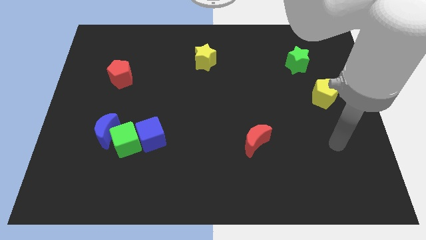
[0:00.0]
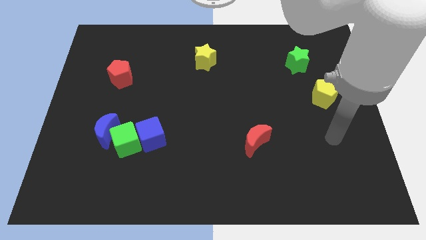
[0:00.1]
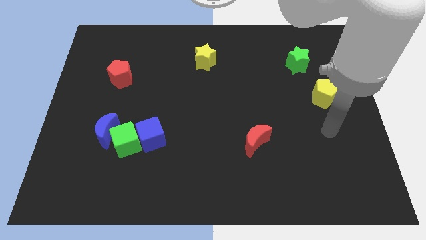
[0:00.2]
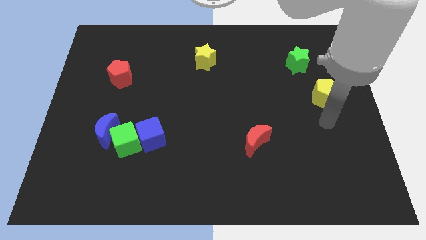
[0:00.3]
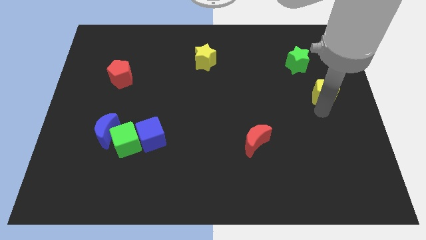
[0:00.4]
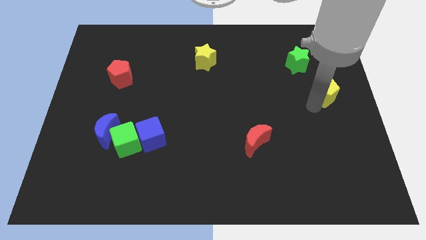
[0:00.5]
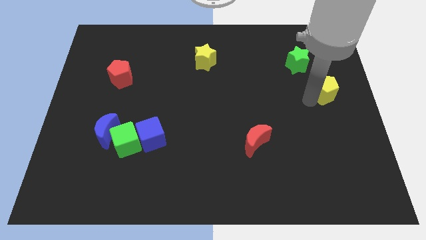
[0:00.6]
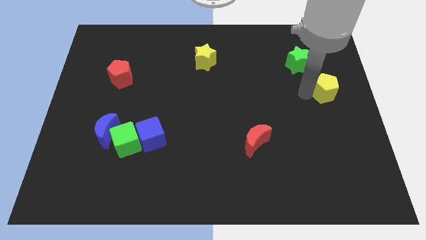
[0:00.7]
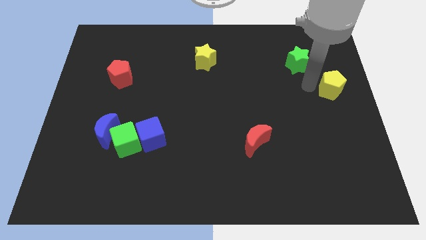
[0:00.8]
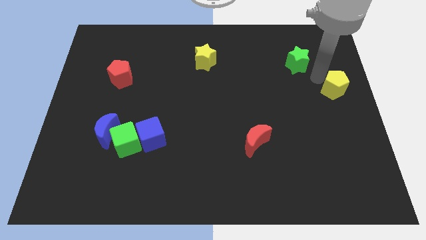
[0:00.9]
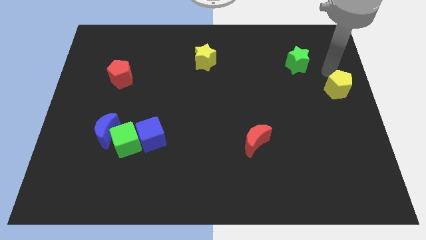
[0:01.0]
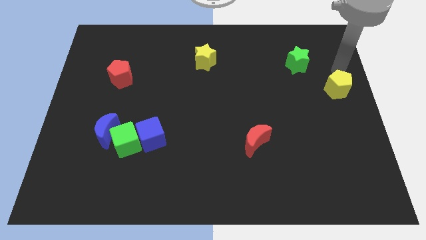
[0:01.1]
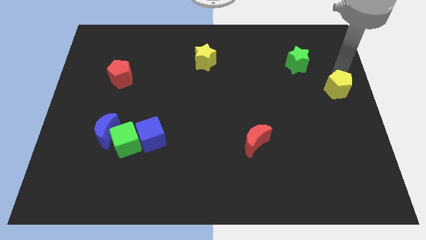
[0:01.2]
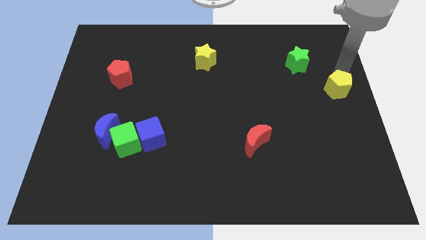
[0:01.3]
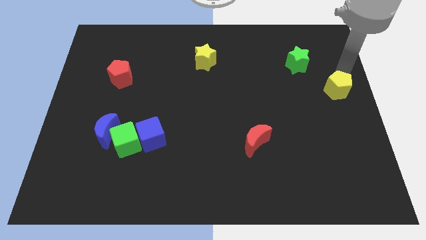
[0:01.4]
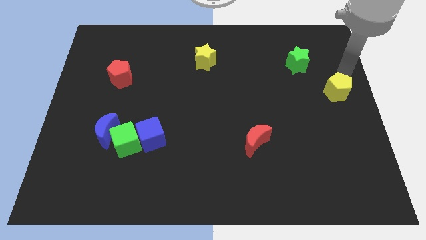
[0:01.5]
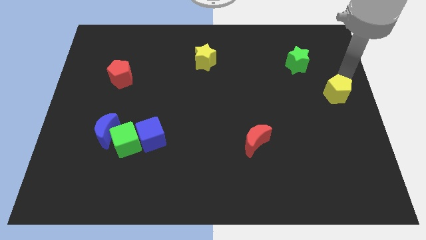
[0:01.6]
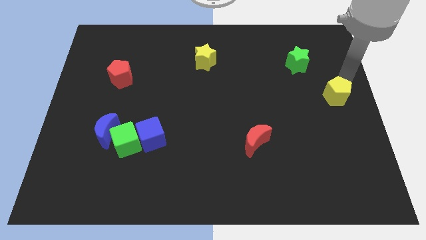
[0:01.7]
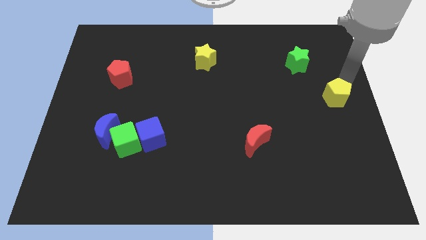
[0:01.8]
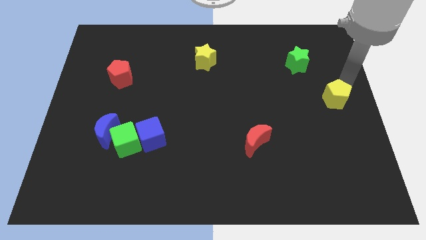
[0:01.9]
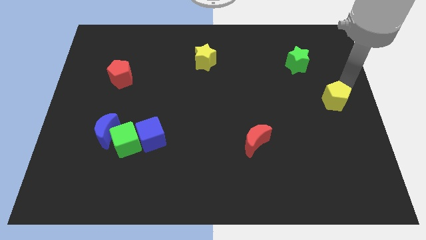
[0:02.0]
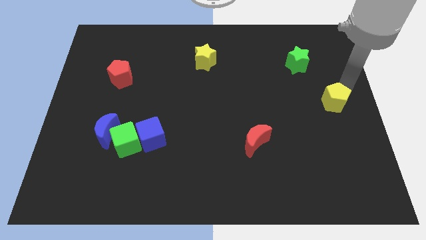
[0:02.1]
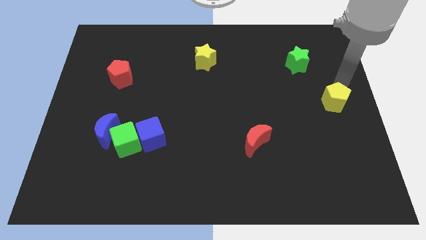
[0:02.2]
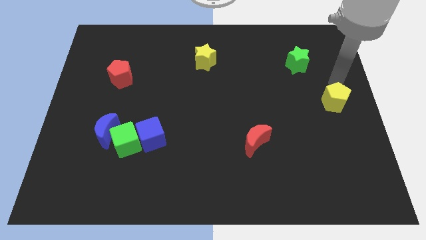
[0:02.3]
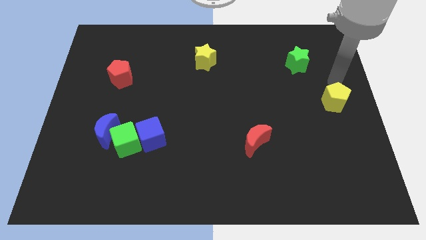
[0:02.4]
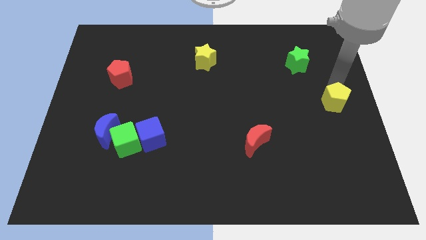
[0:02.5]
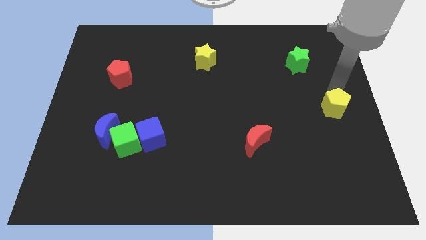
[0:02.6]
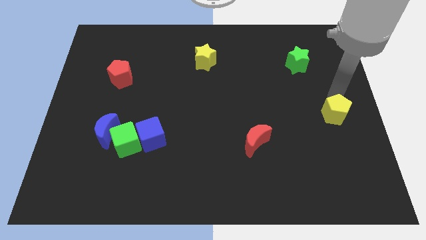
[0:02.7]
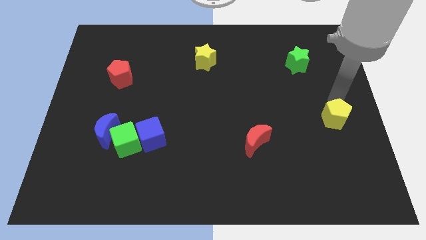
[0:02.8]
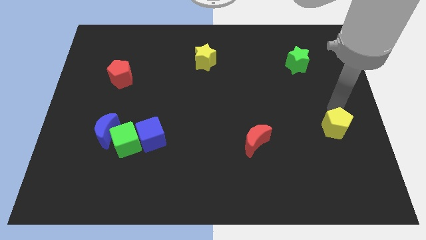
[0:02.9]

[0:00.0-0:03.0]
push the yellow pentagon a bit downwards

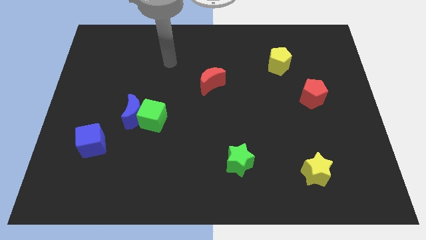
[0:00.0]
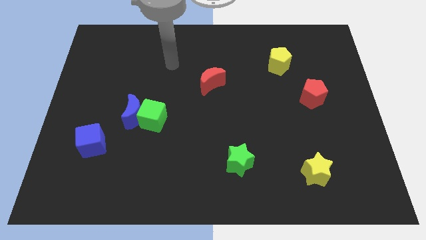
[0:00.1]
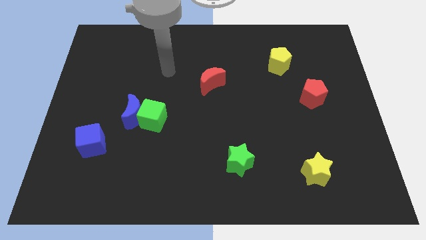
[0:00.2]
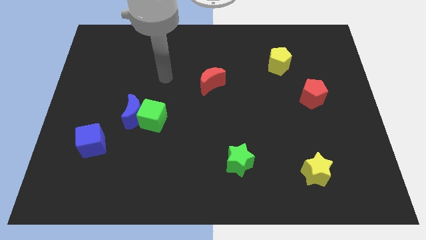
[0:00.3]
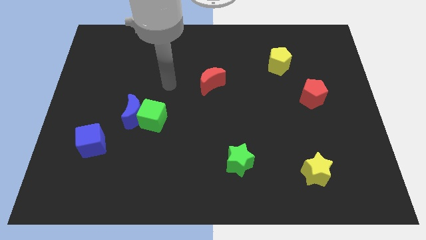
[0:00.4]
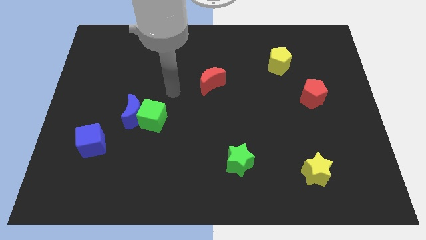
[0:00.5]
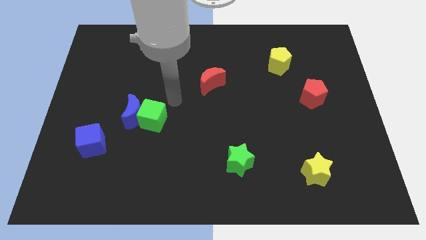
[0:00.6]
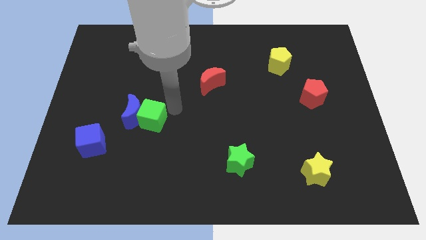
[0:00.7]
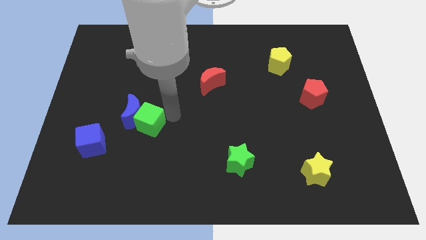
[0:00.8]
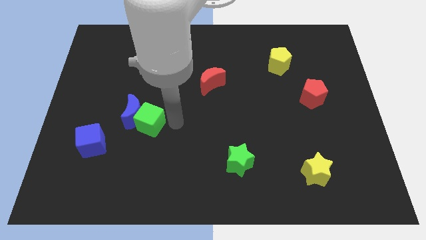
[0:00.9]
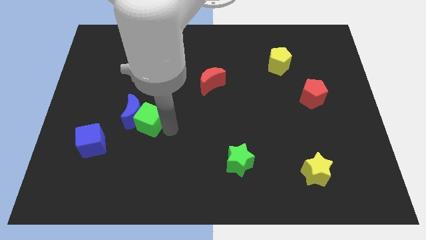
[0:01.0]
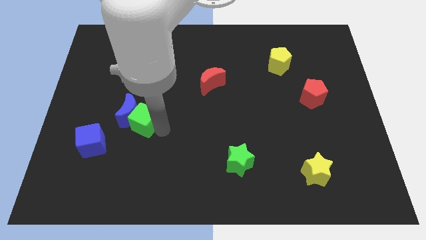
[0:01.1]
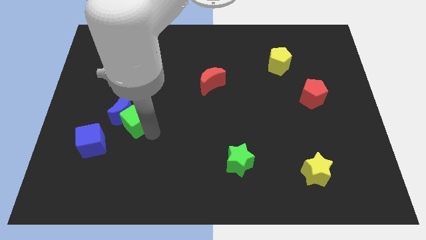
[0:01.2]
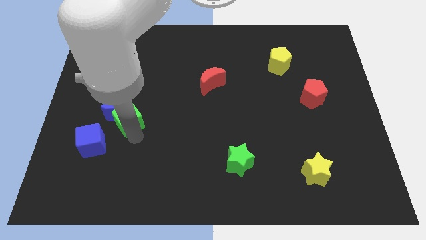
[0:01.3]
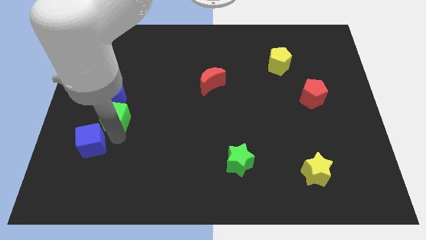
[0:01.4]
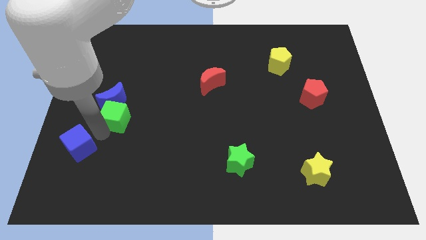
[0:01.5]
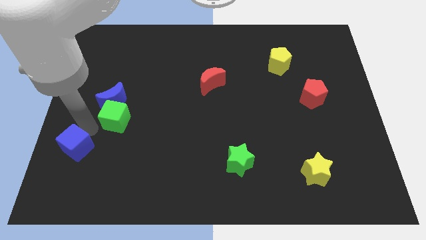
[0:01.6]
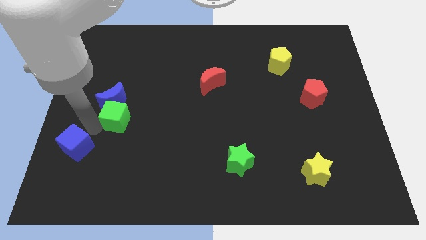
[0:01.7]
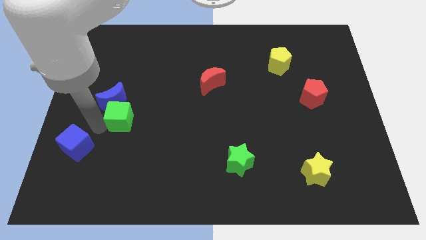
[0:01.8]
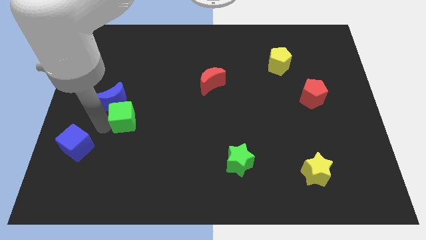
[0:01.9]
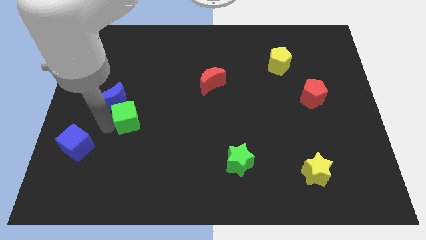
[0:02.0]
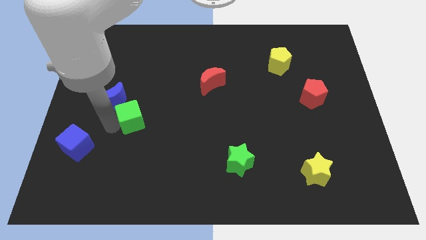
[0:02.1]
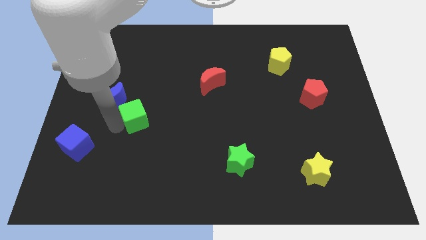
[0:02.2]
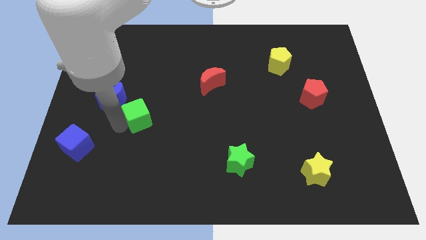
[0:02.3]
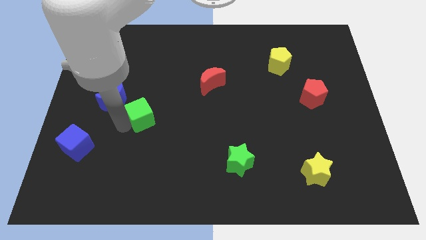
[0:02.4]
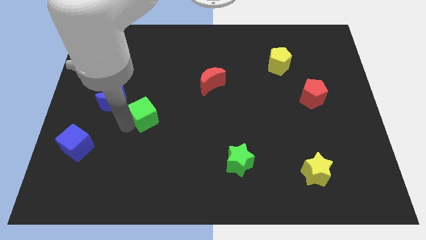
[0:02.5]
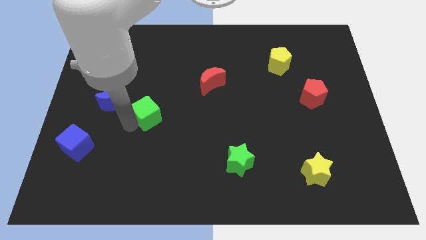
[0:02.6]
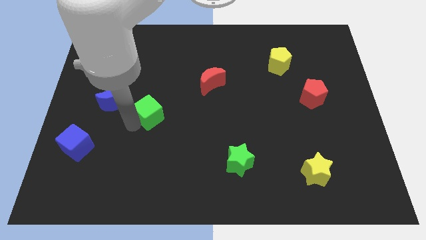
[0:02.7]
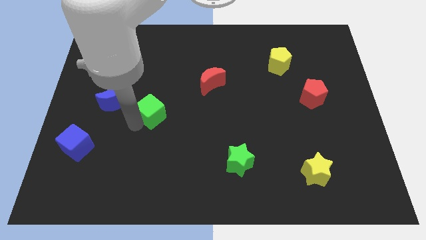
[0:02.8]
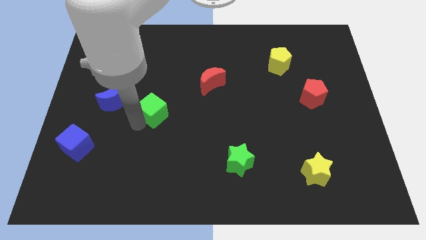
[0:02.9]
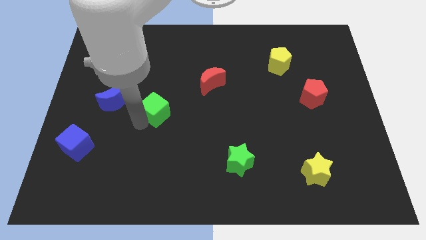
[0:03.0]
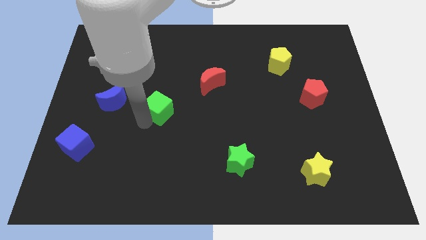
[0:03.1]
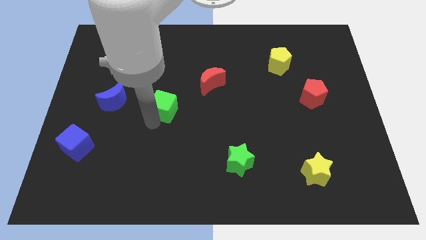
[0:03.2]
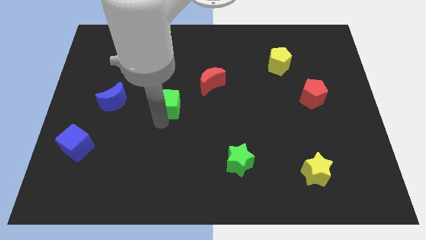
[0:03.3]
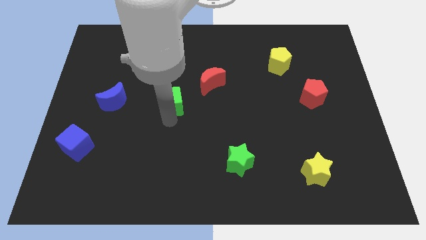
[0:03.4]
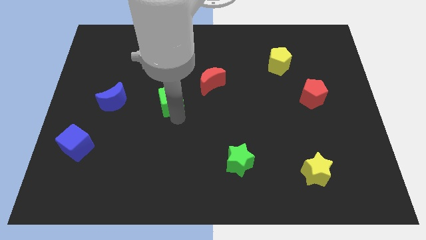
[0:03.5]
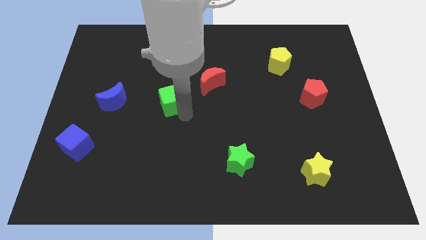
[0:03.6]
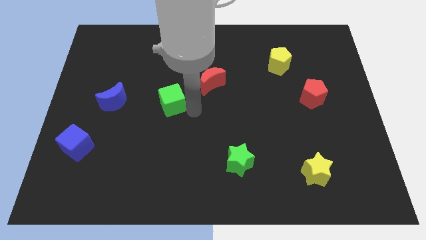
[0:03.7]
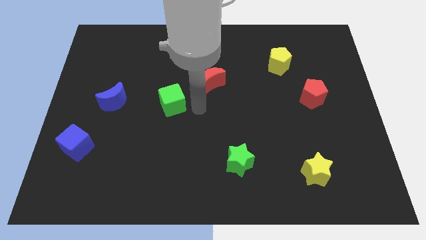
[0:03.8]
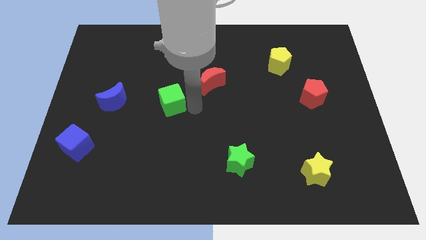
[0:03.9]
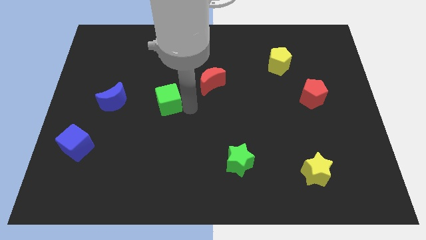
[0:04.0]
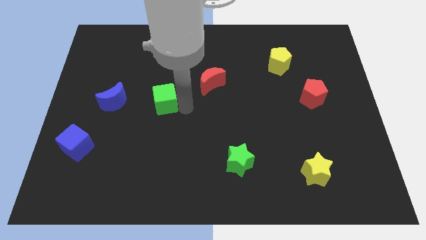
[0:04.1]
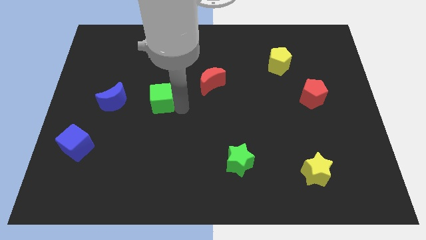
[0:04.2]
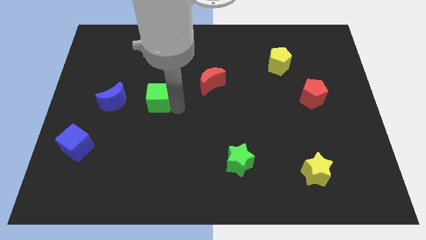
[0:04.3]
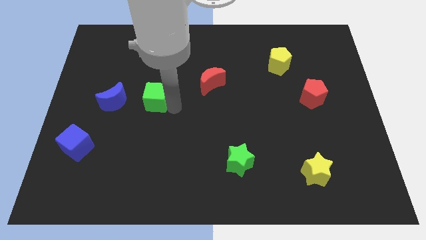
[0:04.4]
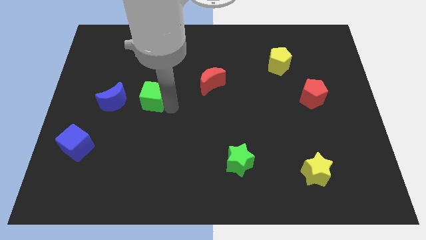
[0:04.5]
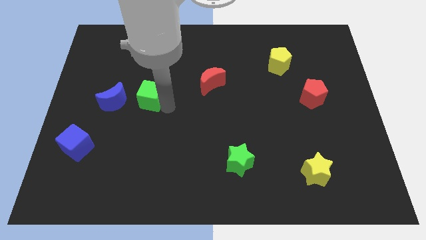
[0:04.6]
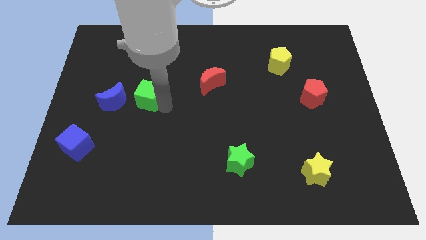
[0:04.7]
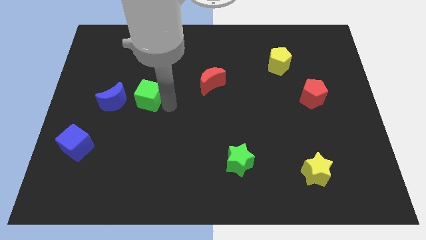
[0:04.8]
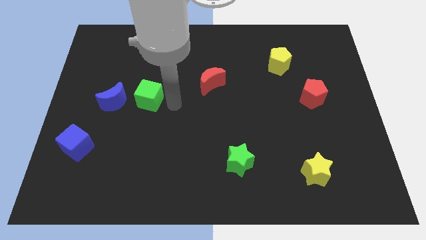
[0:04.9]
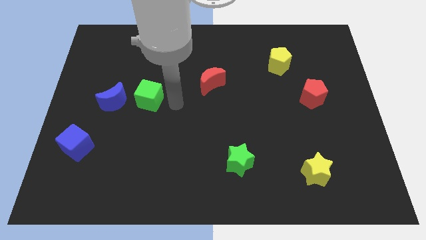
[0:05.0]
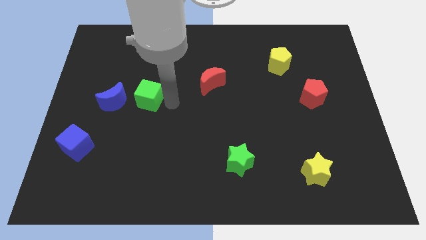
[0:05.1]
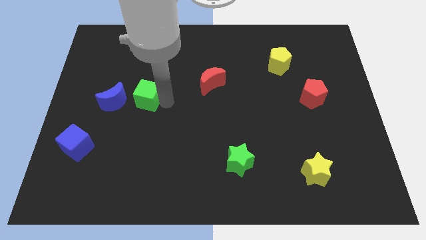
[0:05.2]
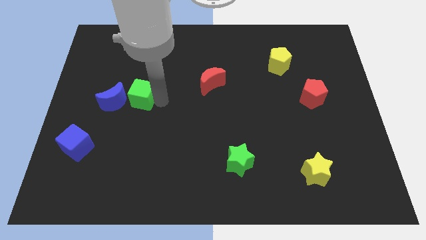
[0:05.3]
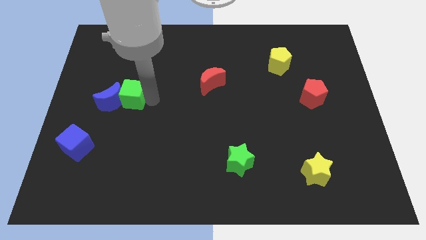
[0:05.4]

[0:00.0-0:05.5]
slide the green cube upwards and left a little
